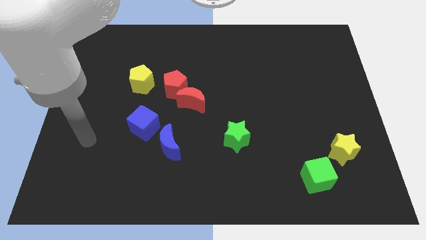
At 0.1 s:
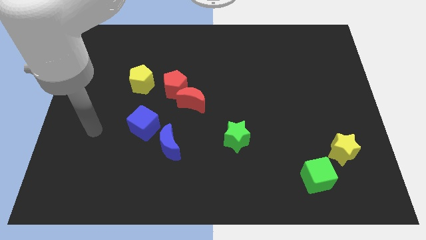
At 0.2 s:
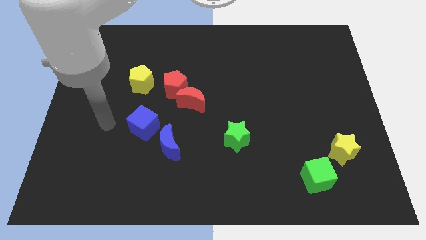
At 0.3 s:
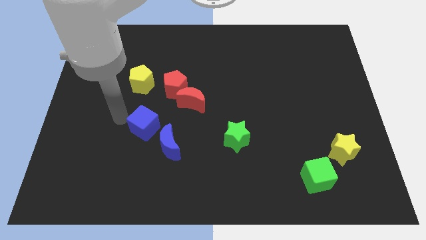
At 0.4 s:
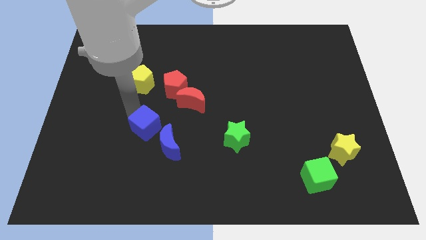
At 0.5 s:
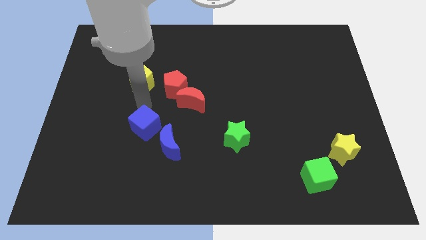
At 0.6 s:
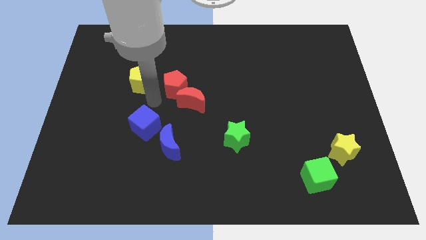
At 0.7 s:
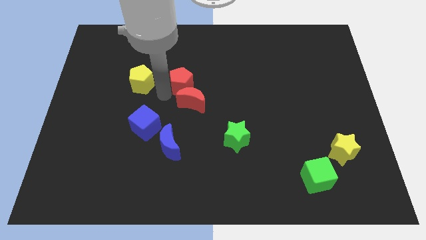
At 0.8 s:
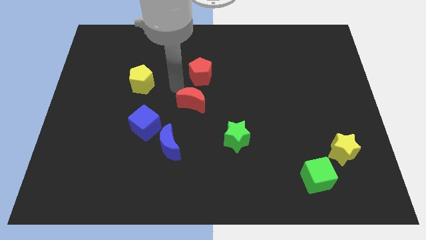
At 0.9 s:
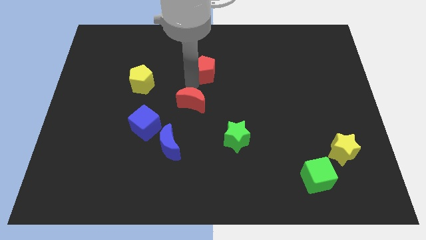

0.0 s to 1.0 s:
pull the red moon apart from the red pentagon

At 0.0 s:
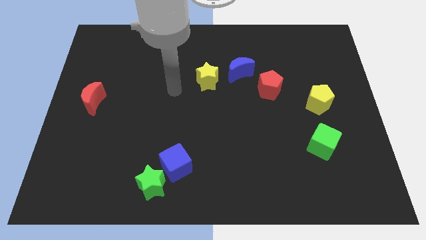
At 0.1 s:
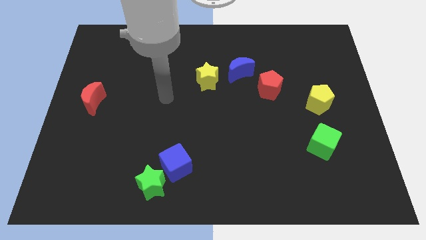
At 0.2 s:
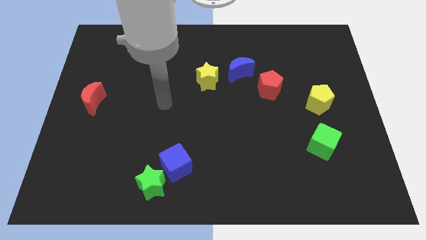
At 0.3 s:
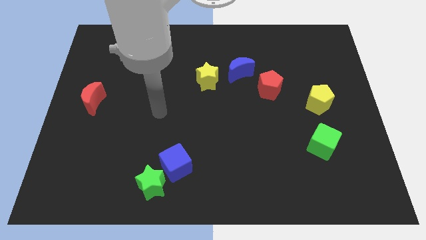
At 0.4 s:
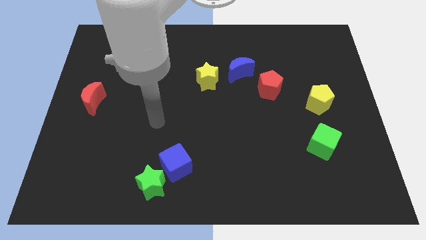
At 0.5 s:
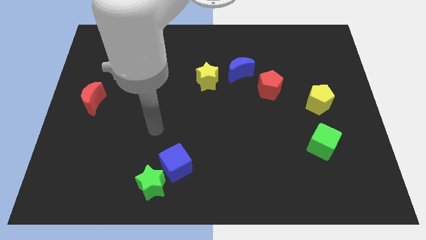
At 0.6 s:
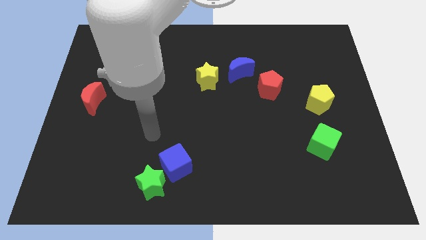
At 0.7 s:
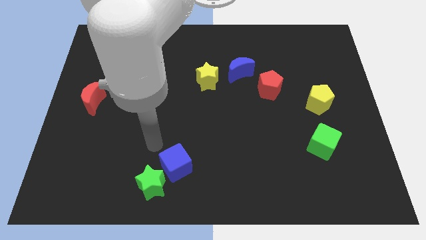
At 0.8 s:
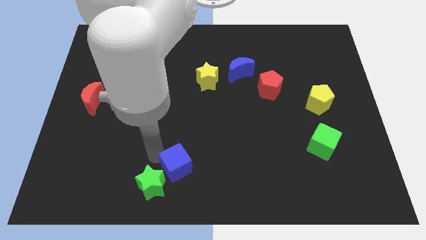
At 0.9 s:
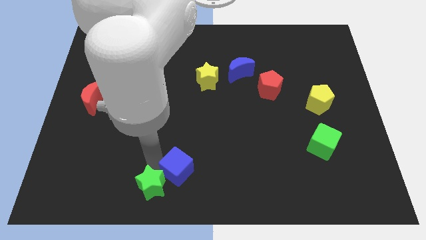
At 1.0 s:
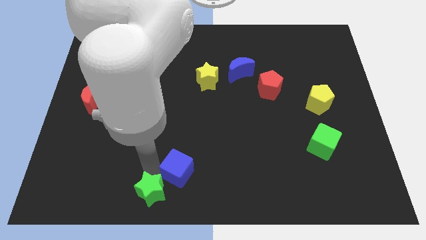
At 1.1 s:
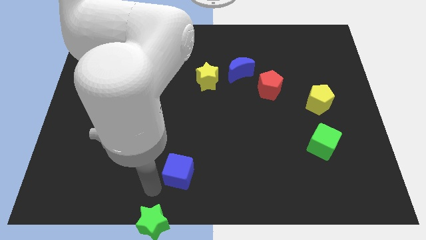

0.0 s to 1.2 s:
move the blue cube away from the green star

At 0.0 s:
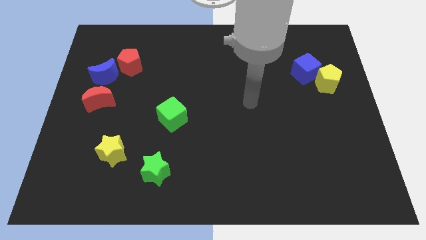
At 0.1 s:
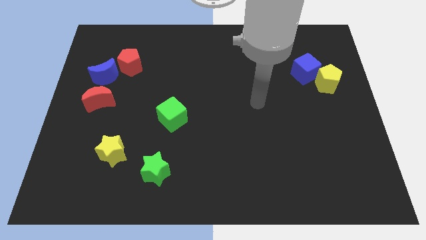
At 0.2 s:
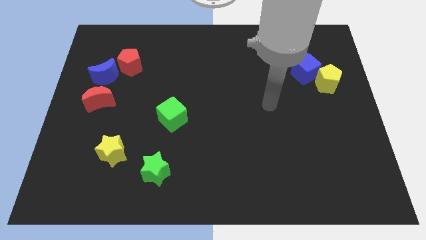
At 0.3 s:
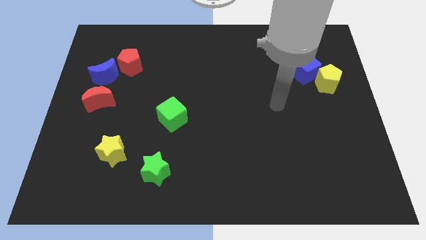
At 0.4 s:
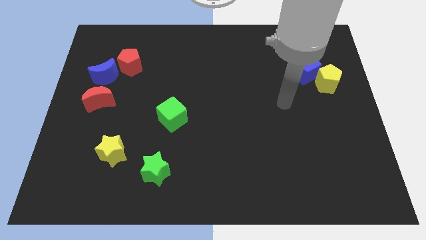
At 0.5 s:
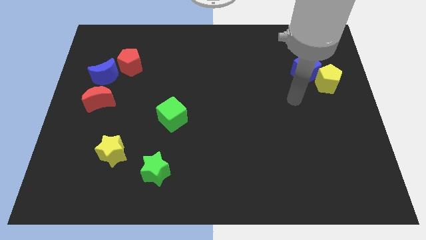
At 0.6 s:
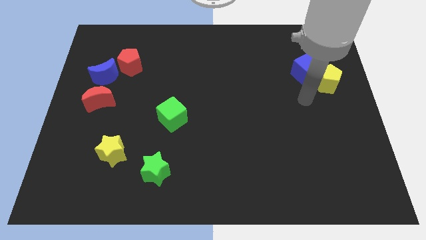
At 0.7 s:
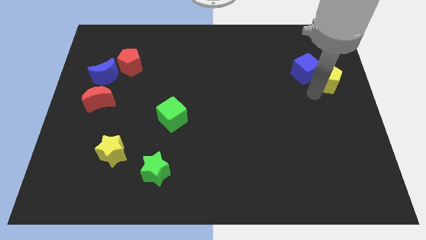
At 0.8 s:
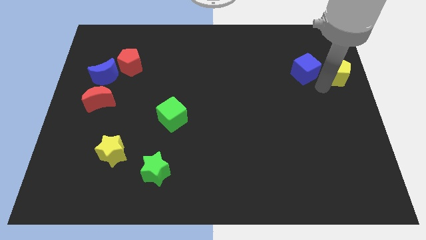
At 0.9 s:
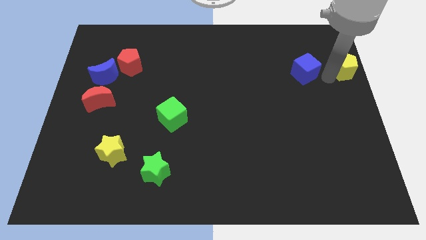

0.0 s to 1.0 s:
move the blue cube away from the yellow pentagon

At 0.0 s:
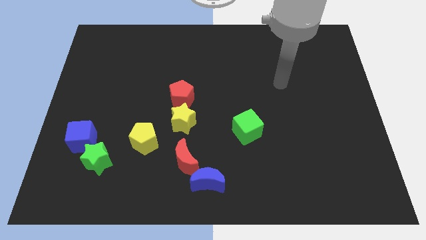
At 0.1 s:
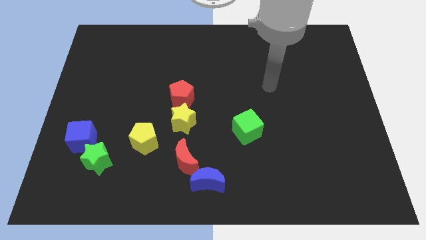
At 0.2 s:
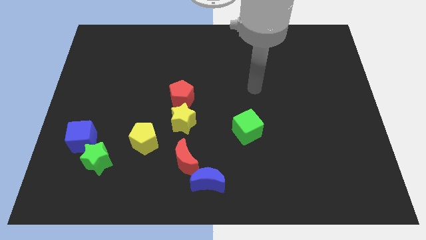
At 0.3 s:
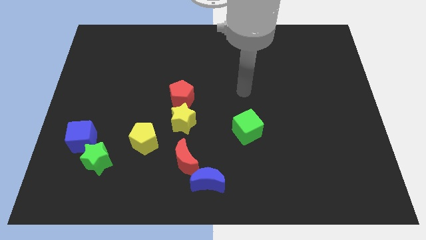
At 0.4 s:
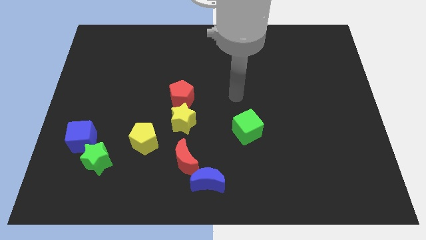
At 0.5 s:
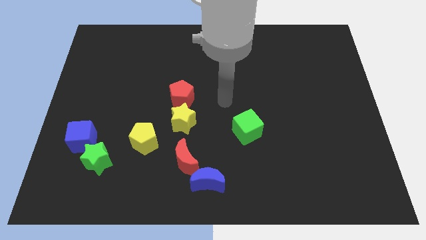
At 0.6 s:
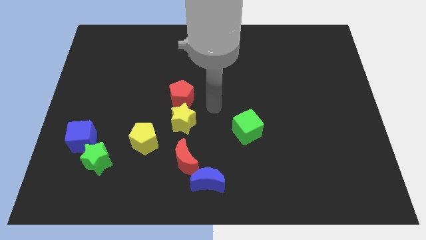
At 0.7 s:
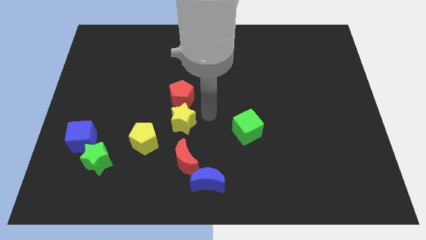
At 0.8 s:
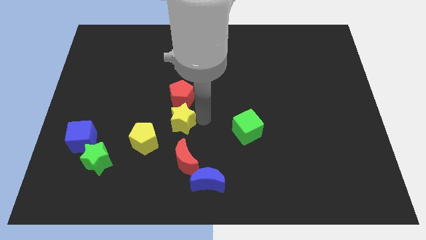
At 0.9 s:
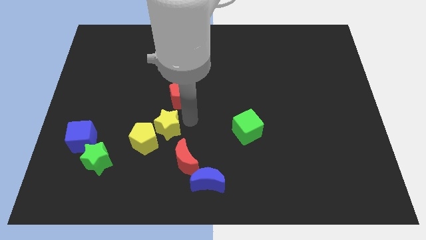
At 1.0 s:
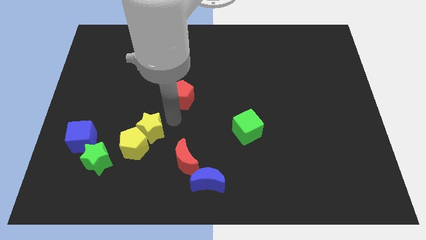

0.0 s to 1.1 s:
move the red pentagon away from the yellow star

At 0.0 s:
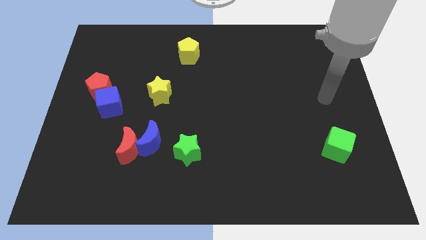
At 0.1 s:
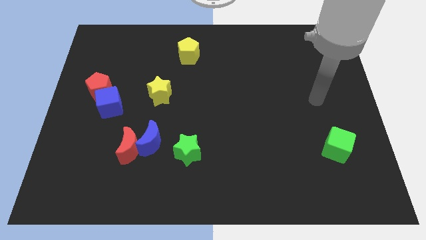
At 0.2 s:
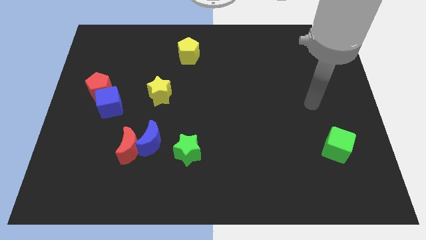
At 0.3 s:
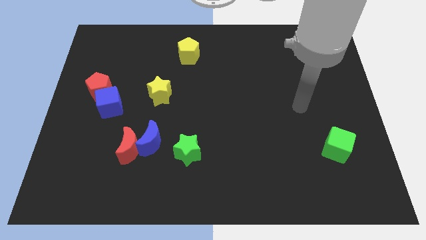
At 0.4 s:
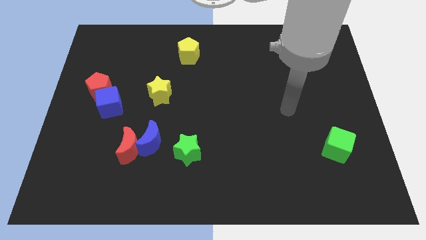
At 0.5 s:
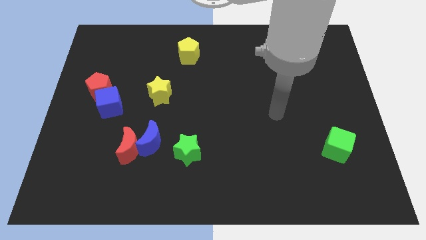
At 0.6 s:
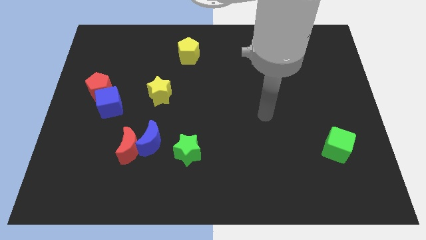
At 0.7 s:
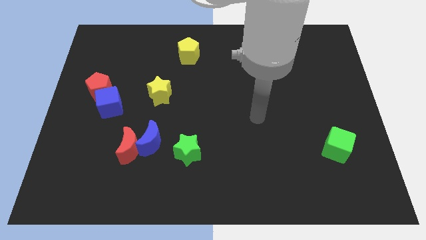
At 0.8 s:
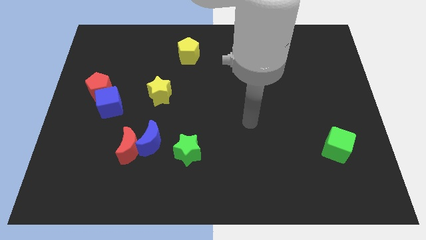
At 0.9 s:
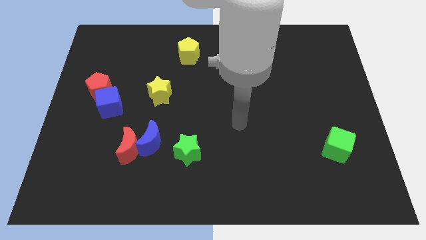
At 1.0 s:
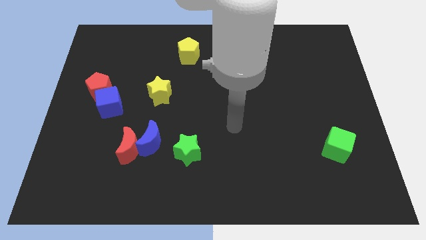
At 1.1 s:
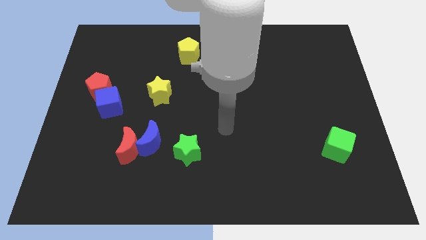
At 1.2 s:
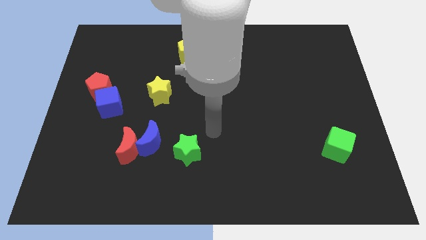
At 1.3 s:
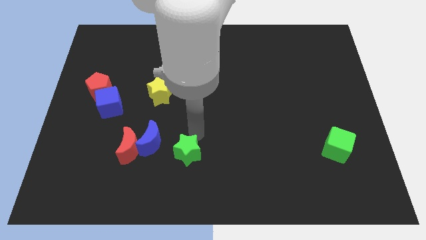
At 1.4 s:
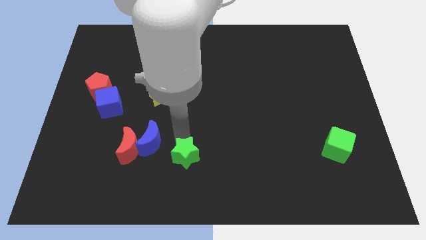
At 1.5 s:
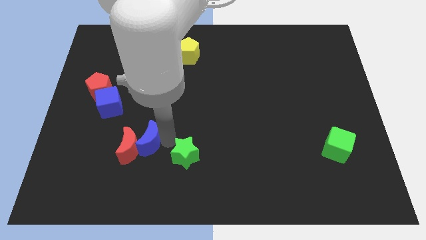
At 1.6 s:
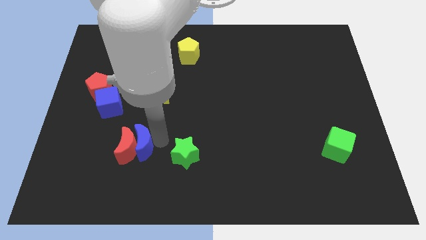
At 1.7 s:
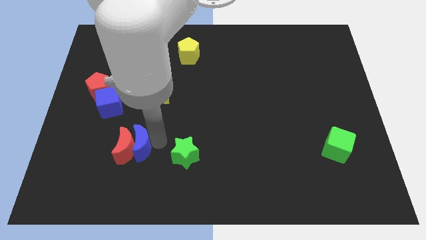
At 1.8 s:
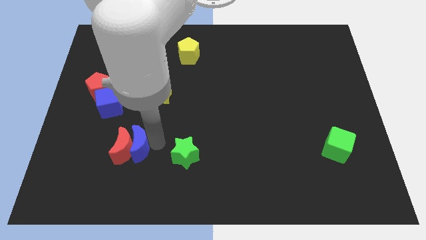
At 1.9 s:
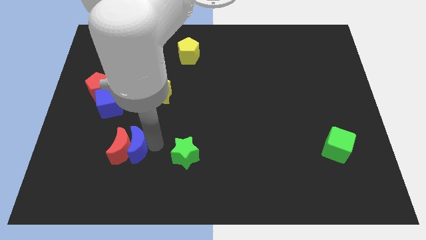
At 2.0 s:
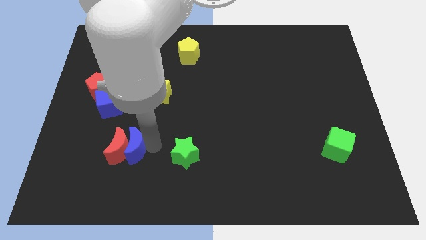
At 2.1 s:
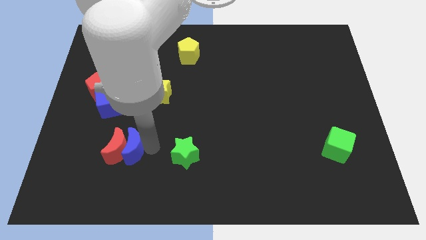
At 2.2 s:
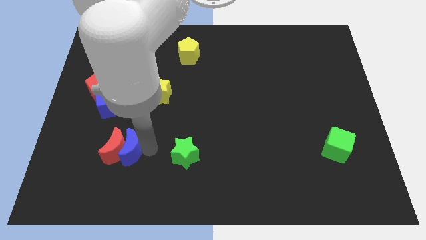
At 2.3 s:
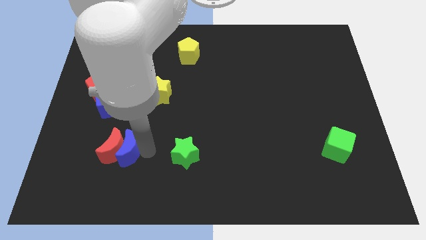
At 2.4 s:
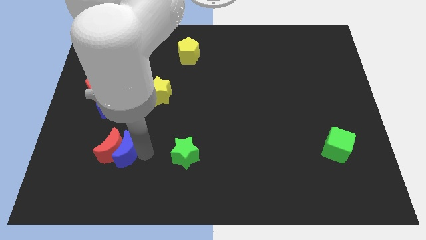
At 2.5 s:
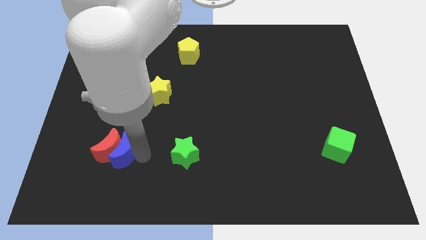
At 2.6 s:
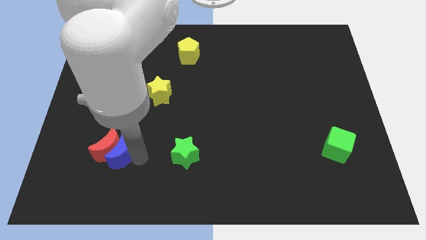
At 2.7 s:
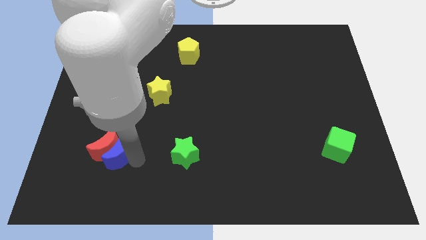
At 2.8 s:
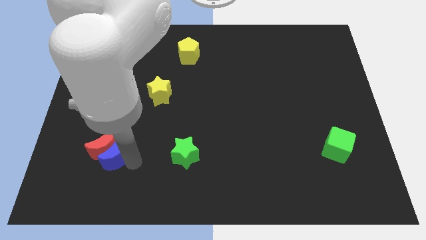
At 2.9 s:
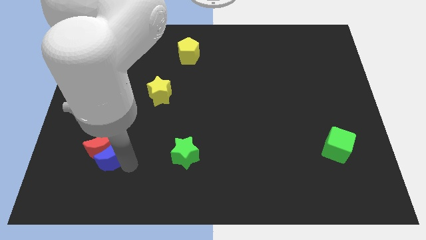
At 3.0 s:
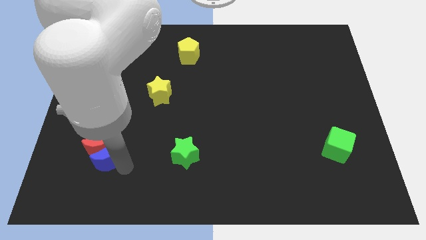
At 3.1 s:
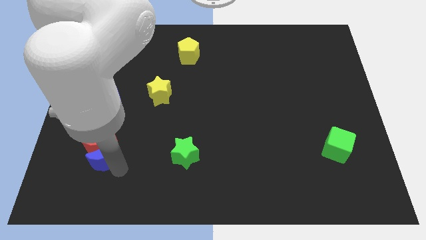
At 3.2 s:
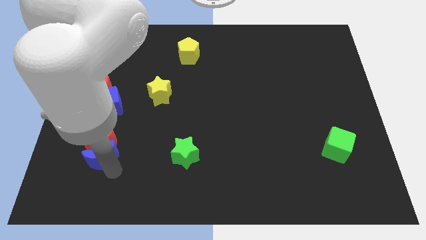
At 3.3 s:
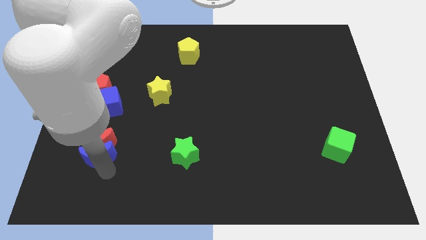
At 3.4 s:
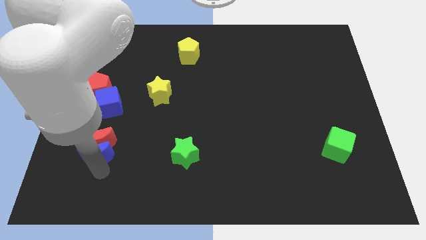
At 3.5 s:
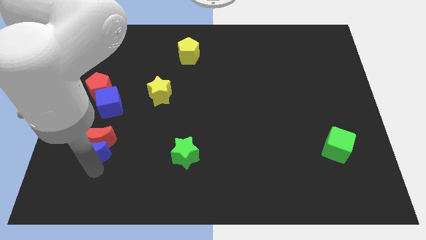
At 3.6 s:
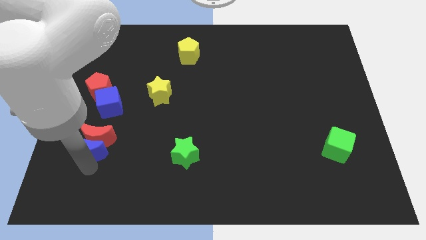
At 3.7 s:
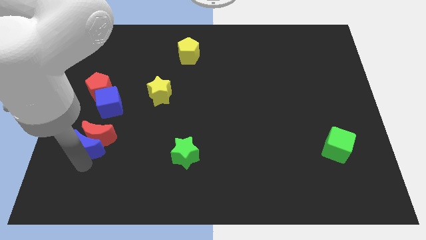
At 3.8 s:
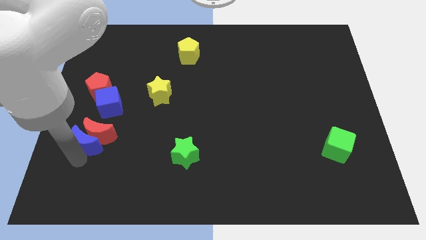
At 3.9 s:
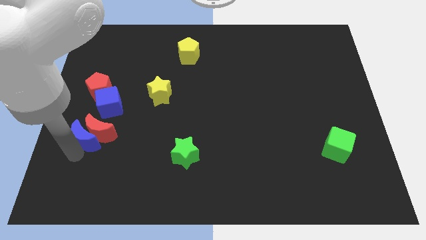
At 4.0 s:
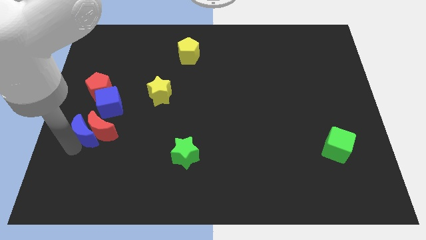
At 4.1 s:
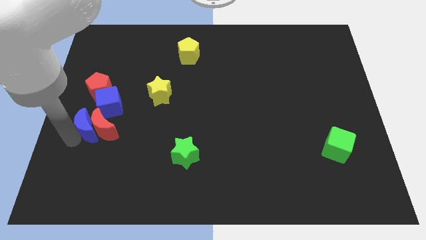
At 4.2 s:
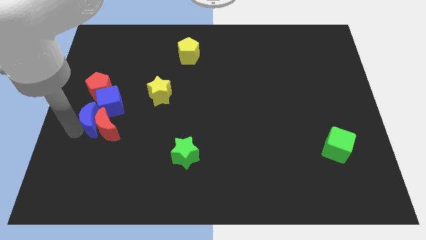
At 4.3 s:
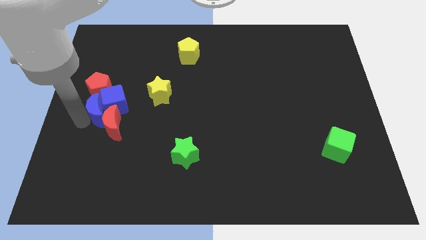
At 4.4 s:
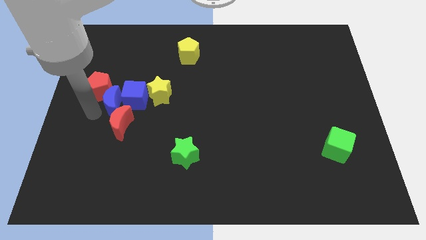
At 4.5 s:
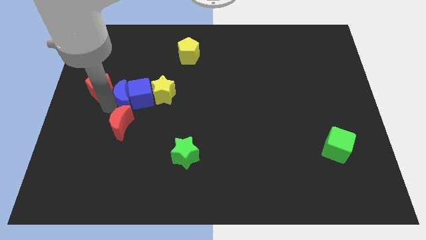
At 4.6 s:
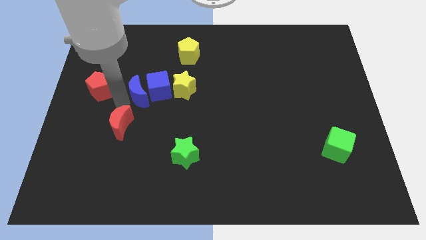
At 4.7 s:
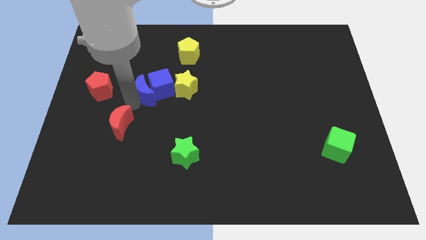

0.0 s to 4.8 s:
pull the red moon apart from the blue moon

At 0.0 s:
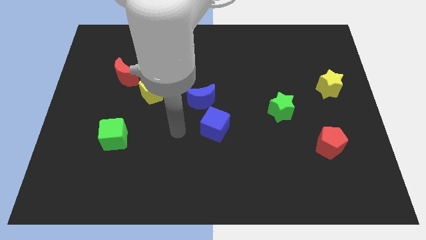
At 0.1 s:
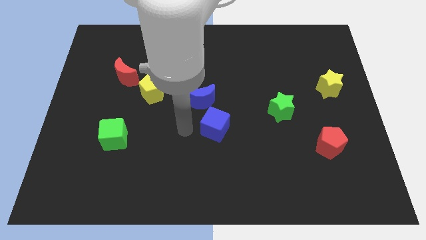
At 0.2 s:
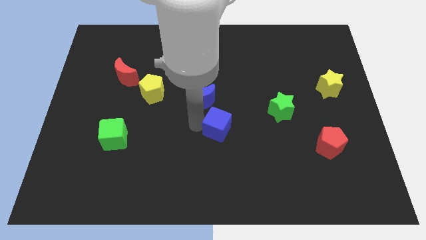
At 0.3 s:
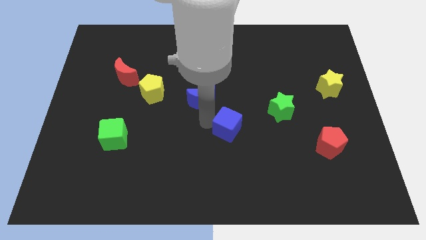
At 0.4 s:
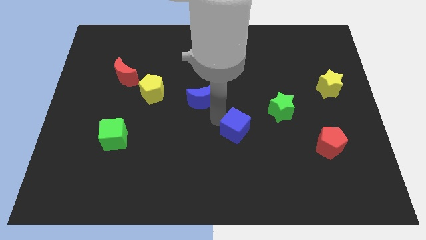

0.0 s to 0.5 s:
separate the blue moon from the blue cube
